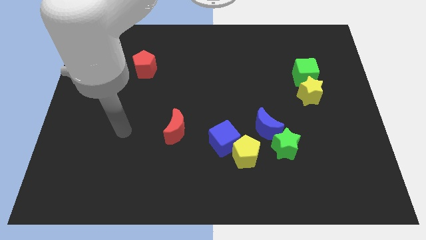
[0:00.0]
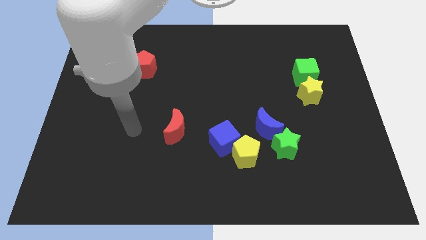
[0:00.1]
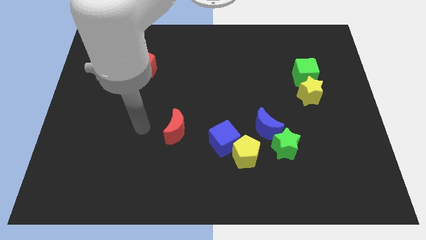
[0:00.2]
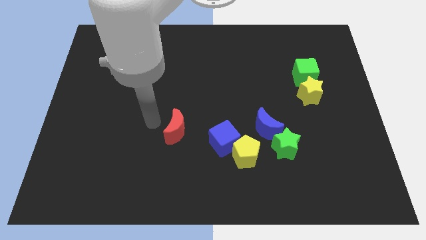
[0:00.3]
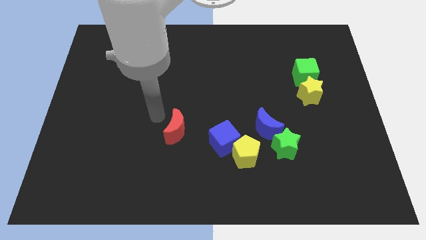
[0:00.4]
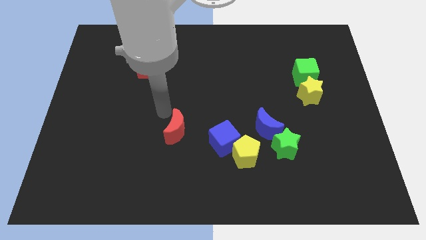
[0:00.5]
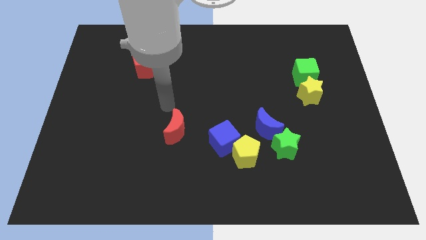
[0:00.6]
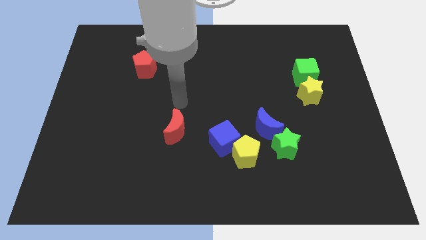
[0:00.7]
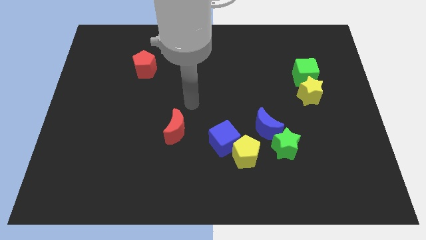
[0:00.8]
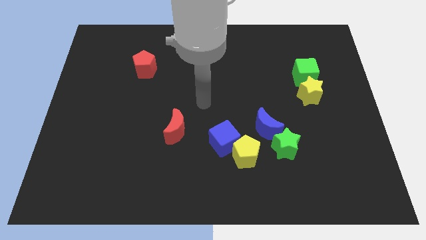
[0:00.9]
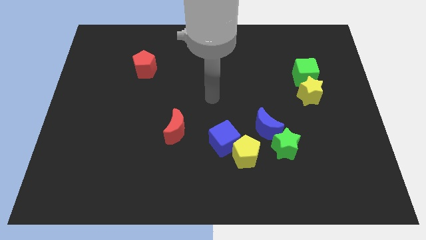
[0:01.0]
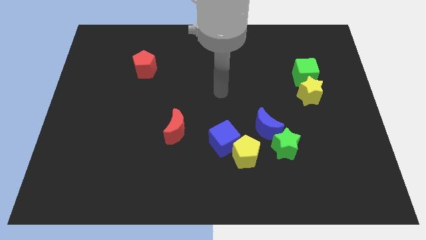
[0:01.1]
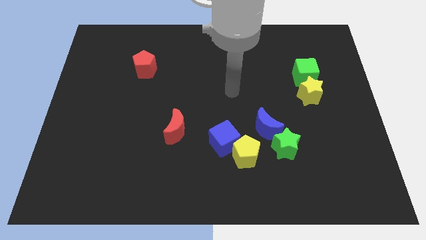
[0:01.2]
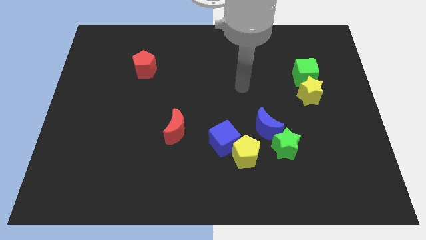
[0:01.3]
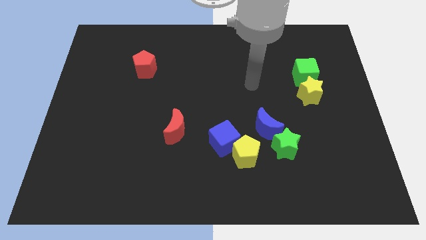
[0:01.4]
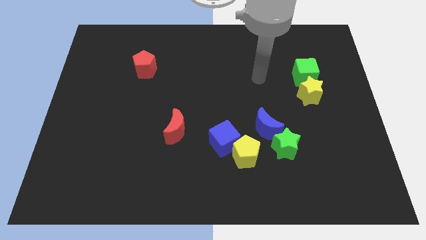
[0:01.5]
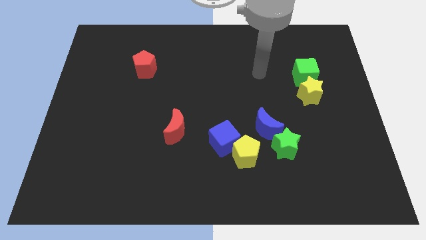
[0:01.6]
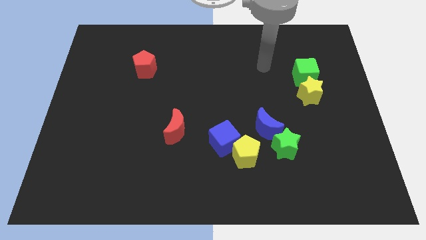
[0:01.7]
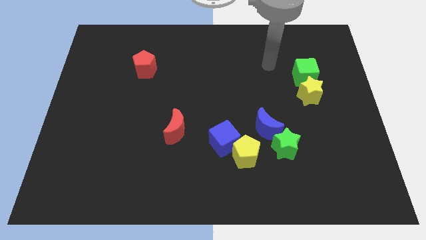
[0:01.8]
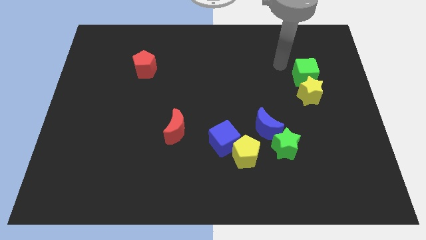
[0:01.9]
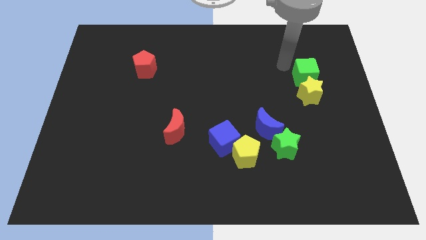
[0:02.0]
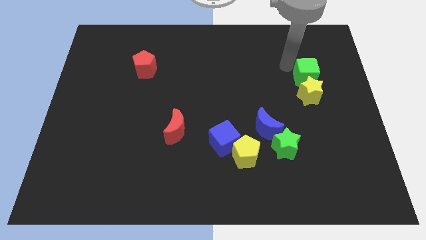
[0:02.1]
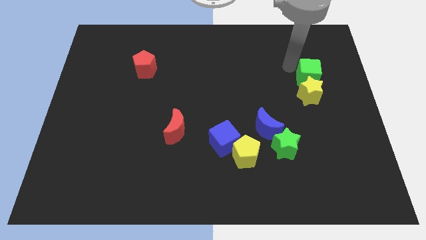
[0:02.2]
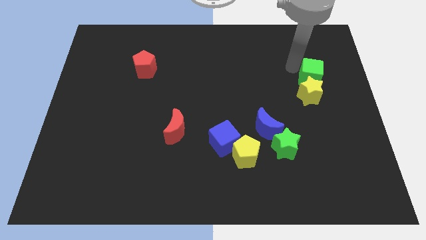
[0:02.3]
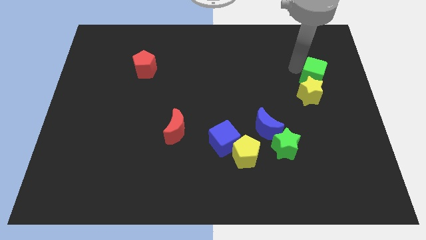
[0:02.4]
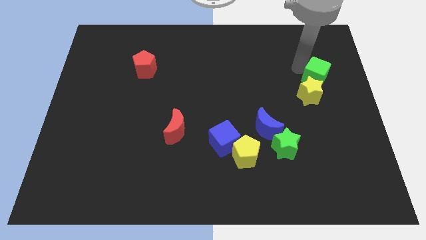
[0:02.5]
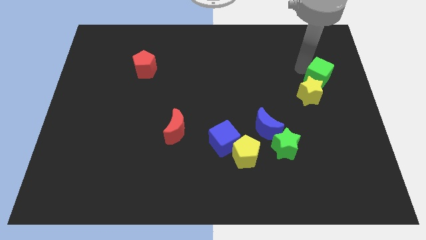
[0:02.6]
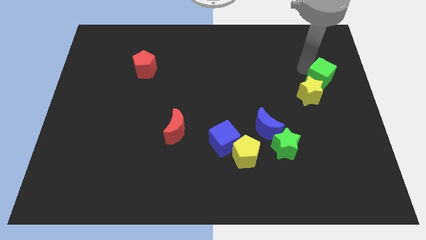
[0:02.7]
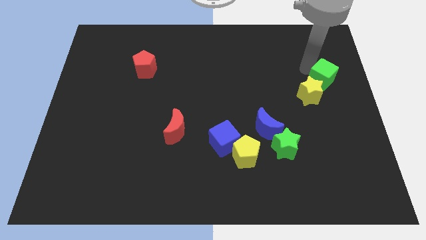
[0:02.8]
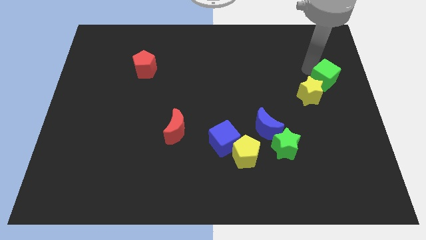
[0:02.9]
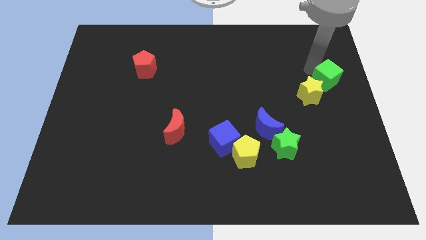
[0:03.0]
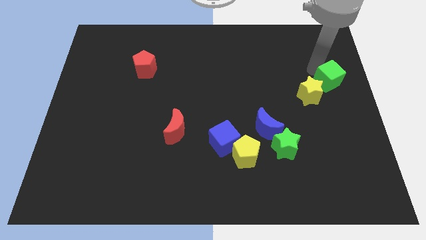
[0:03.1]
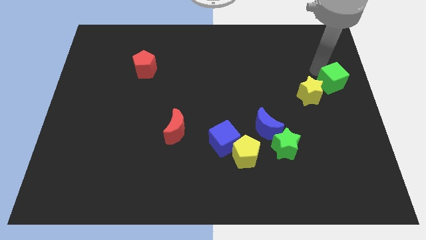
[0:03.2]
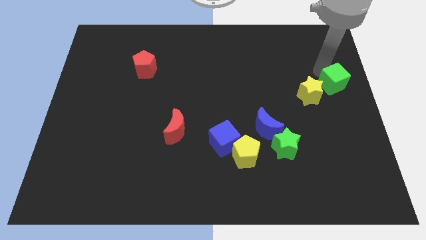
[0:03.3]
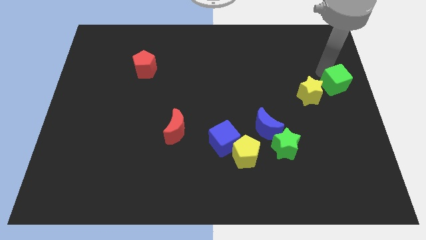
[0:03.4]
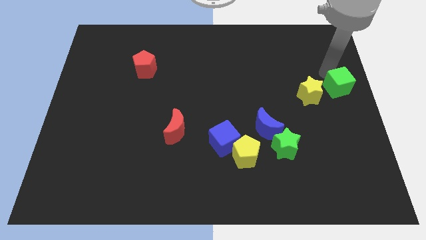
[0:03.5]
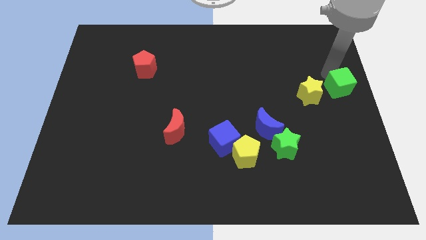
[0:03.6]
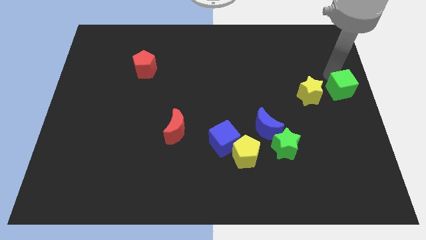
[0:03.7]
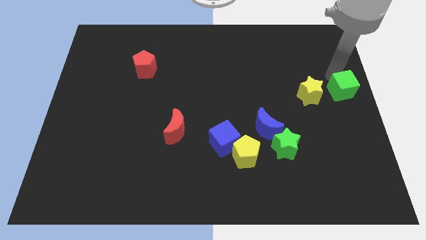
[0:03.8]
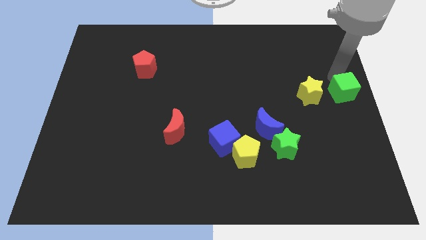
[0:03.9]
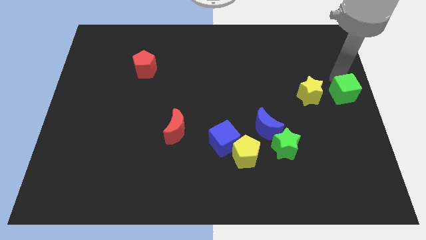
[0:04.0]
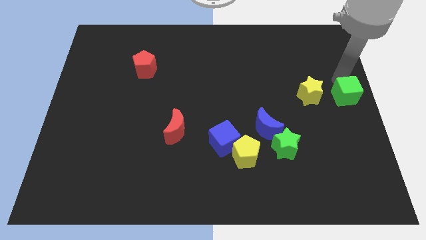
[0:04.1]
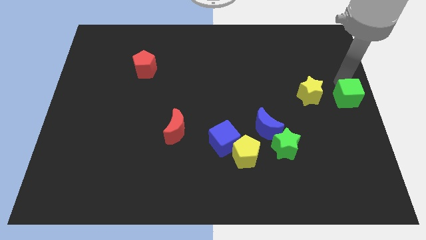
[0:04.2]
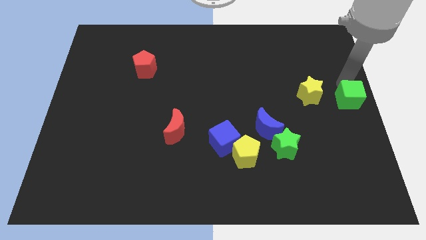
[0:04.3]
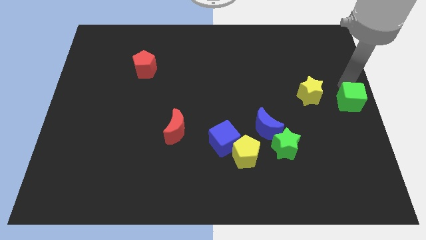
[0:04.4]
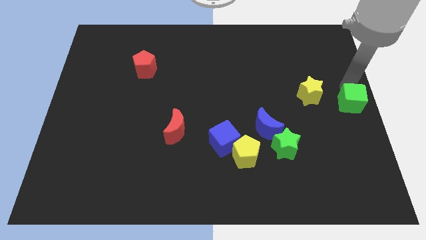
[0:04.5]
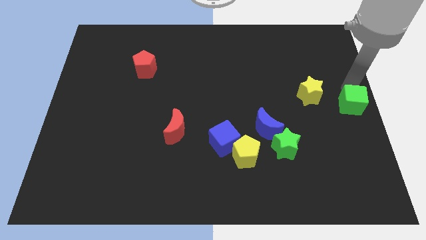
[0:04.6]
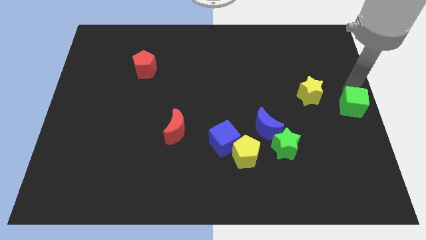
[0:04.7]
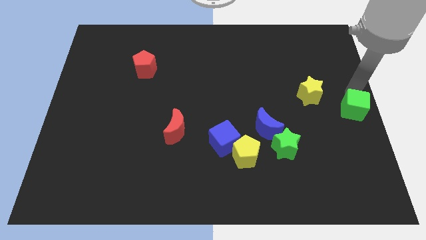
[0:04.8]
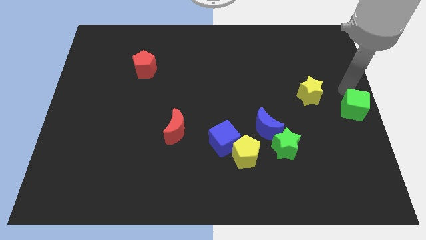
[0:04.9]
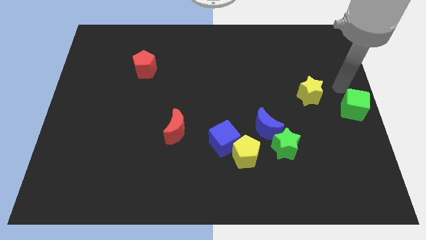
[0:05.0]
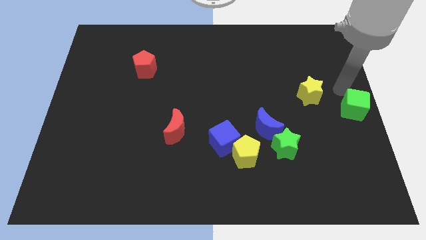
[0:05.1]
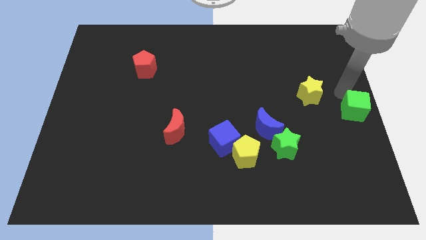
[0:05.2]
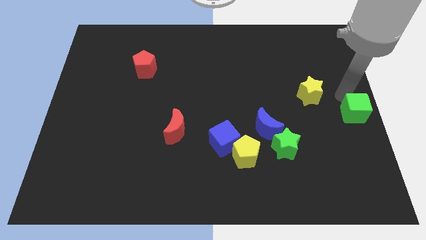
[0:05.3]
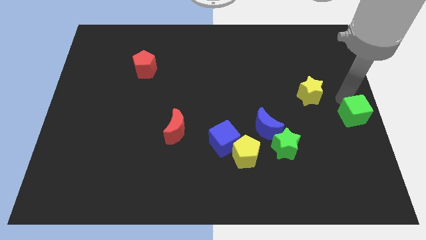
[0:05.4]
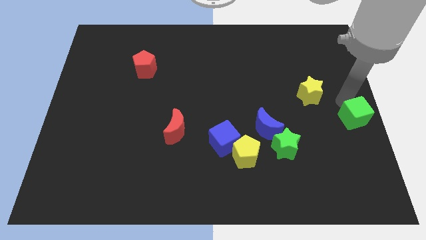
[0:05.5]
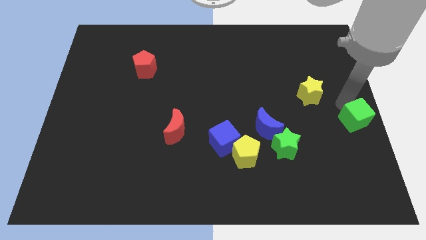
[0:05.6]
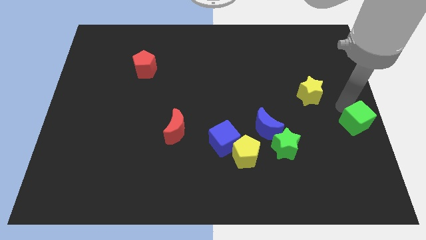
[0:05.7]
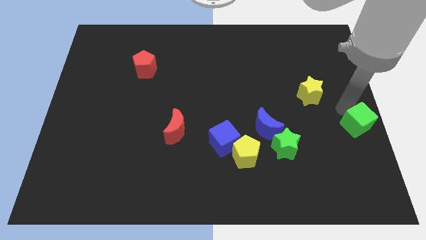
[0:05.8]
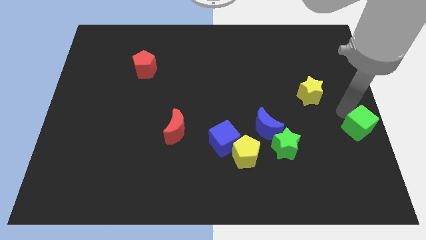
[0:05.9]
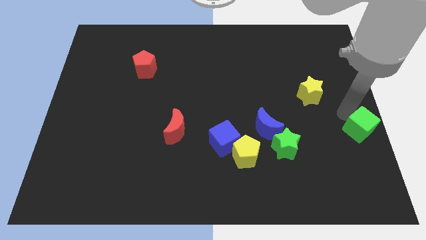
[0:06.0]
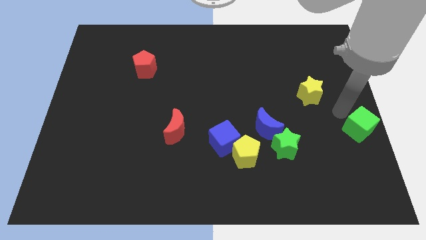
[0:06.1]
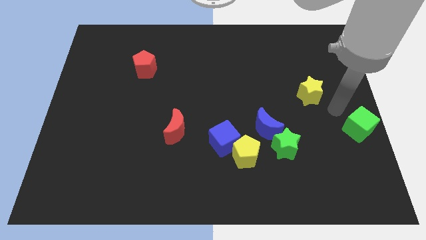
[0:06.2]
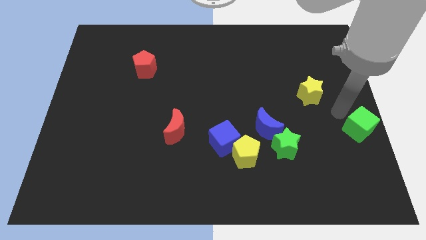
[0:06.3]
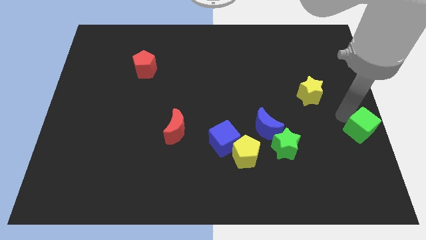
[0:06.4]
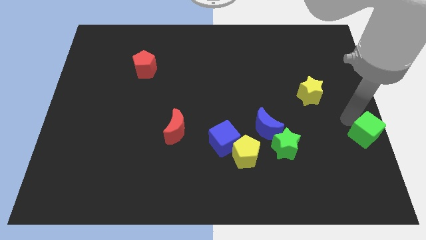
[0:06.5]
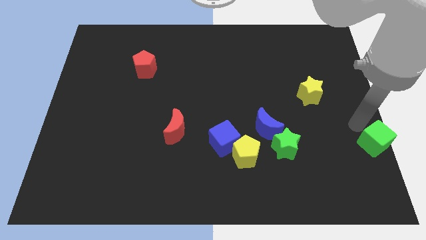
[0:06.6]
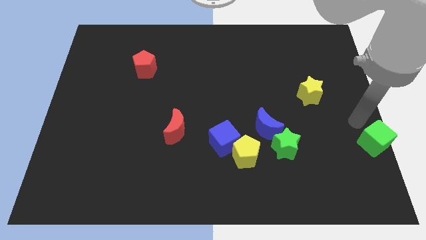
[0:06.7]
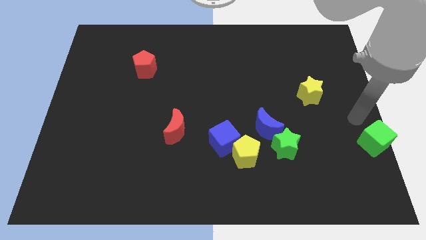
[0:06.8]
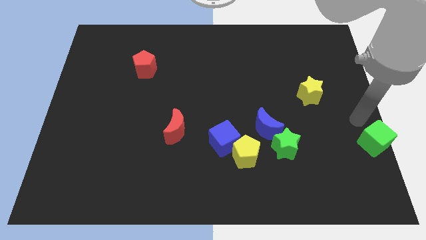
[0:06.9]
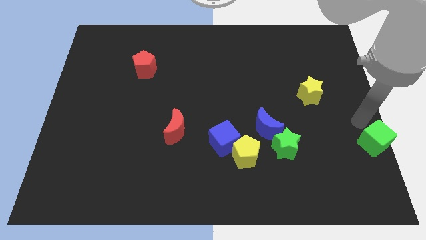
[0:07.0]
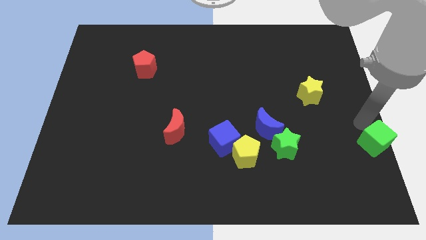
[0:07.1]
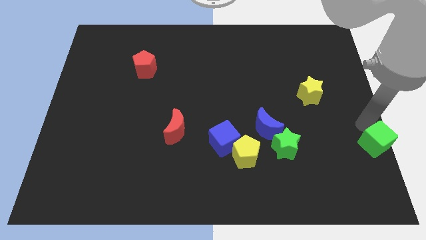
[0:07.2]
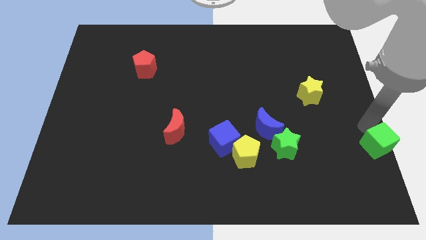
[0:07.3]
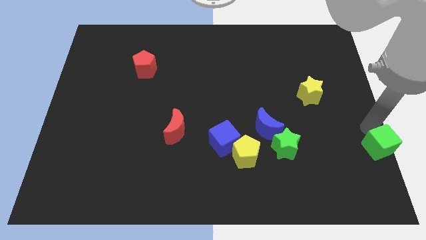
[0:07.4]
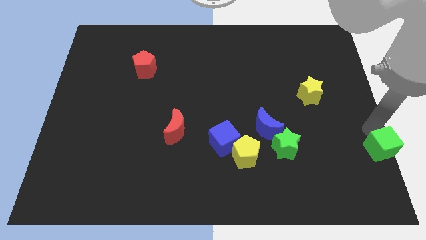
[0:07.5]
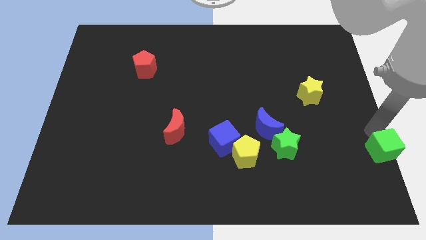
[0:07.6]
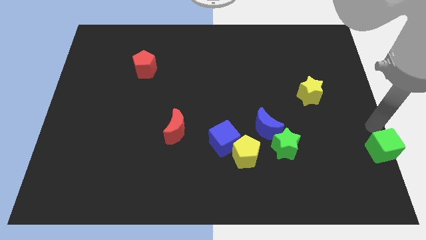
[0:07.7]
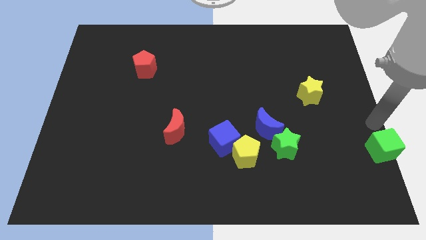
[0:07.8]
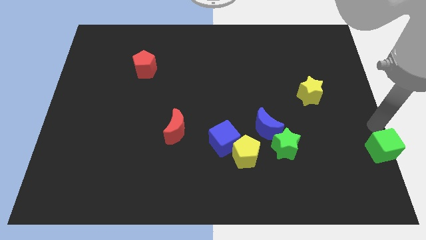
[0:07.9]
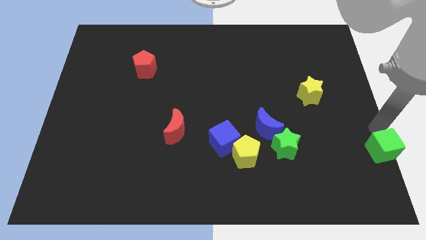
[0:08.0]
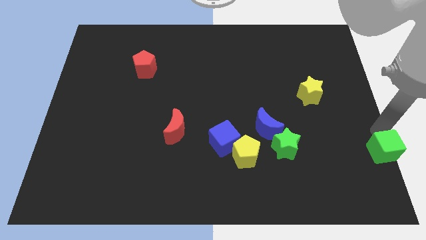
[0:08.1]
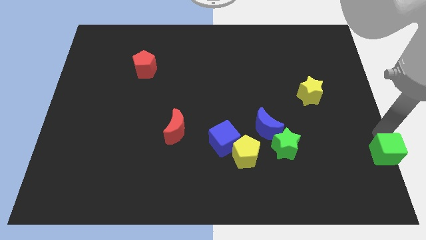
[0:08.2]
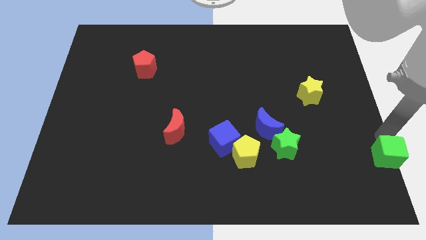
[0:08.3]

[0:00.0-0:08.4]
move the green cube to the bottom right of the board
